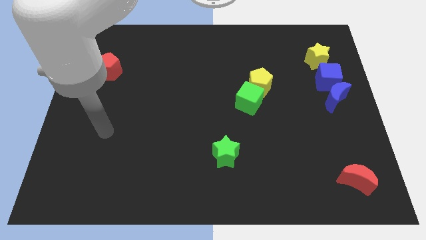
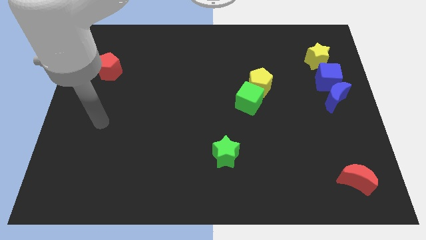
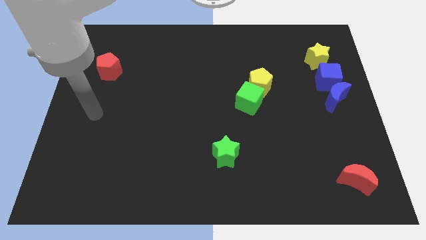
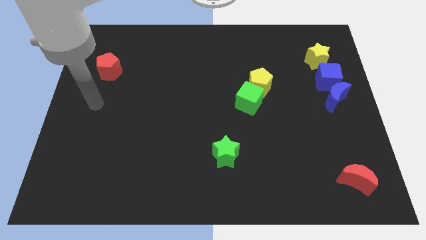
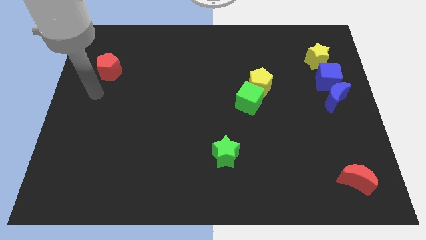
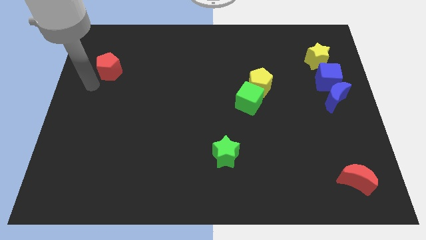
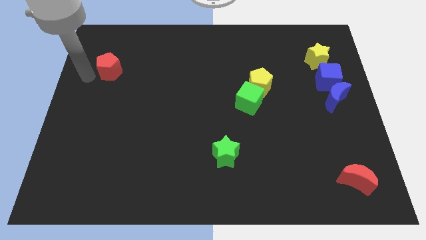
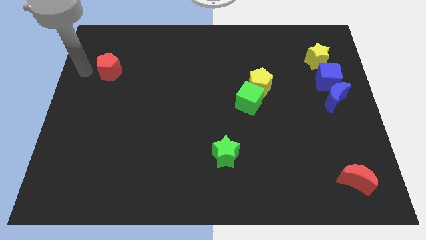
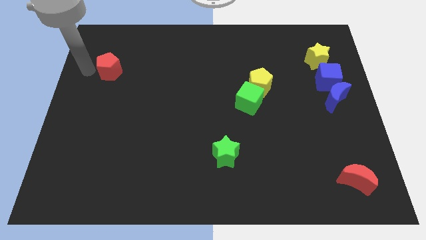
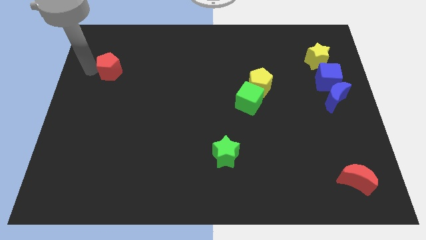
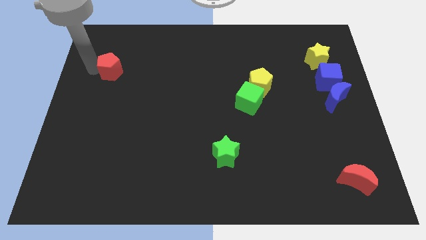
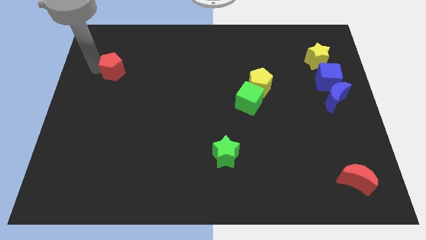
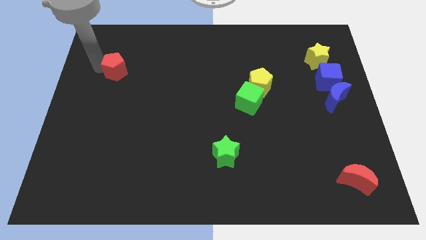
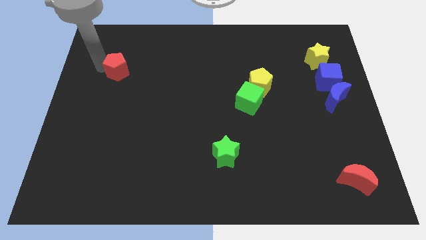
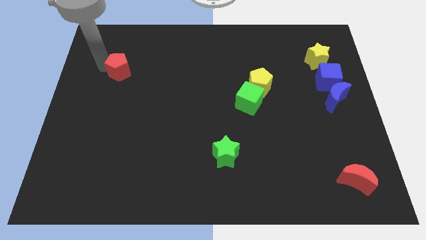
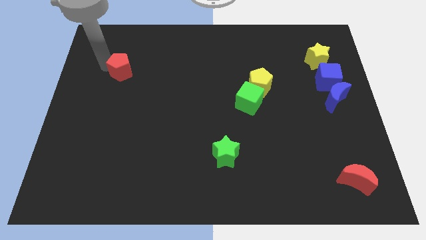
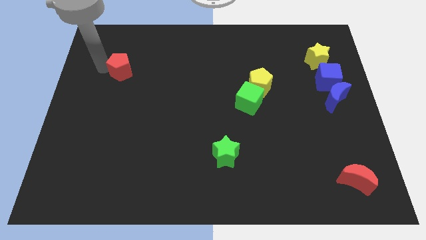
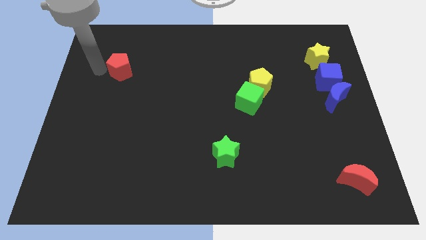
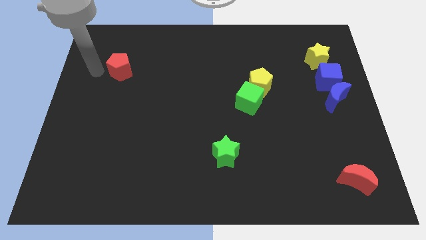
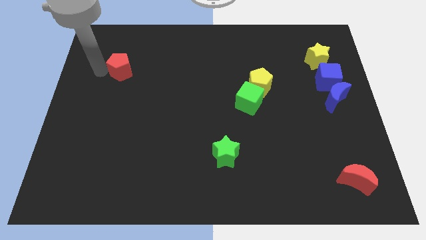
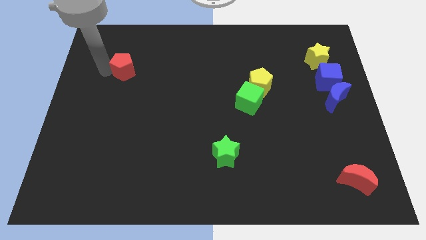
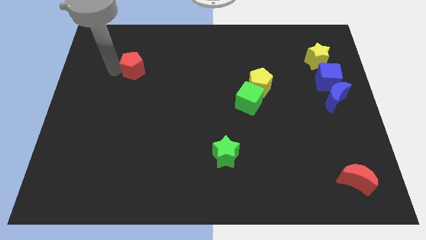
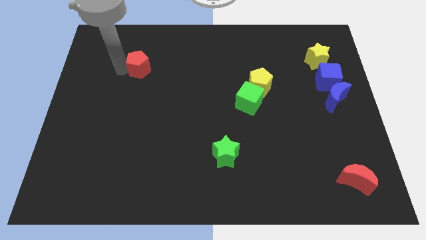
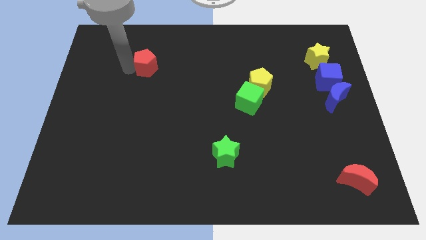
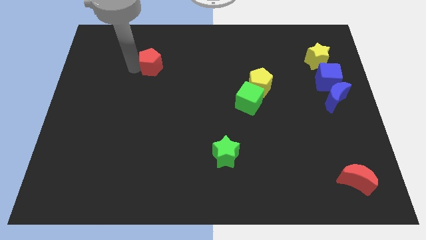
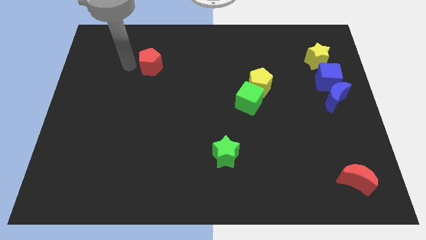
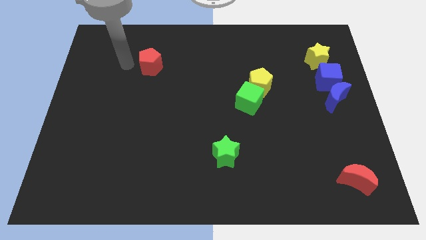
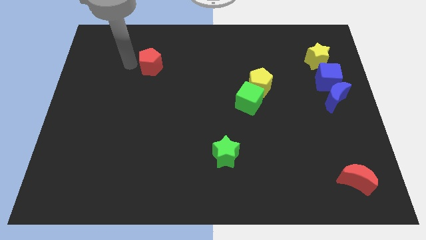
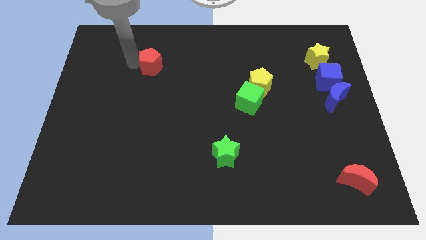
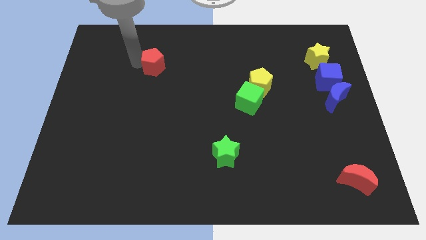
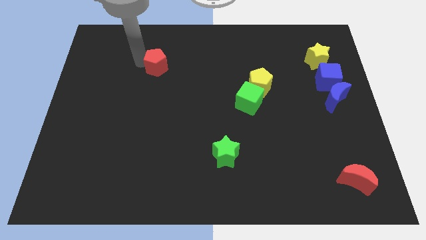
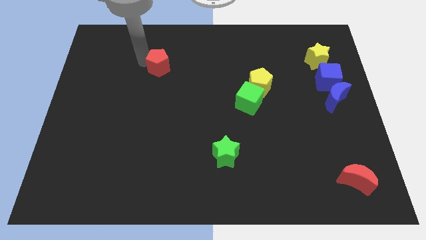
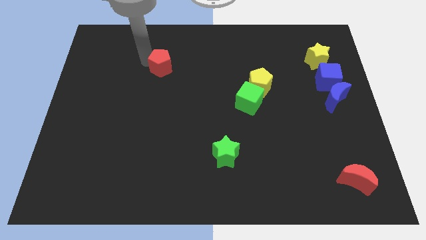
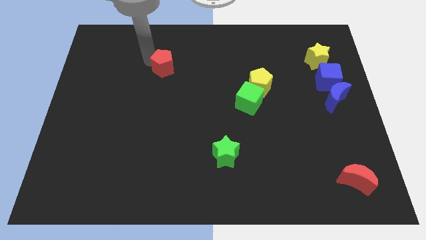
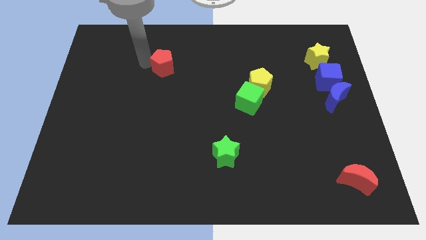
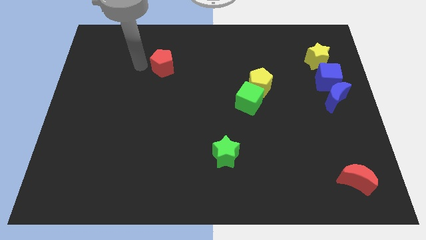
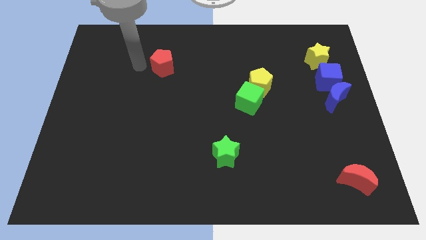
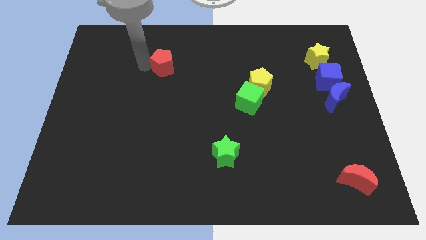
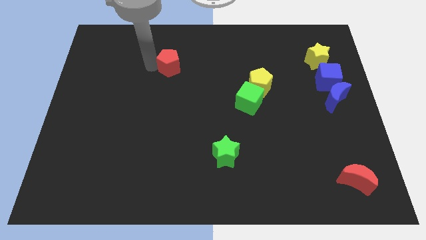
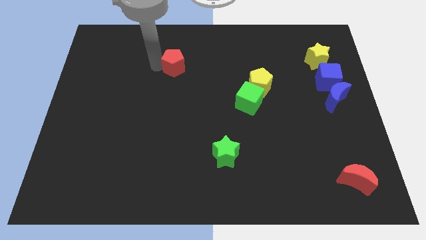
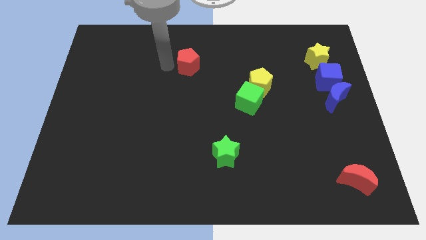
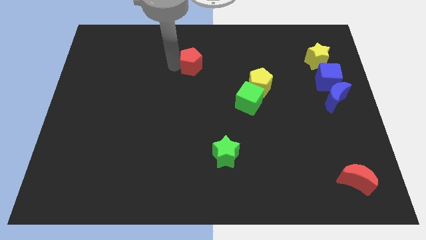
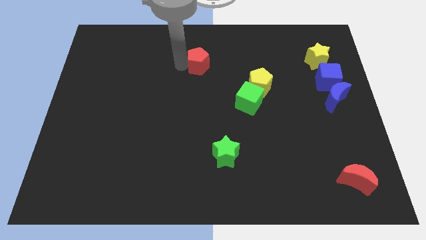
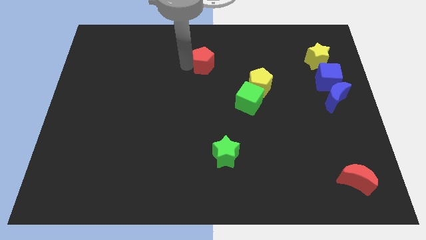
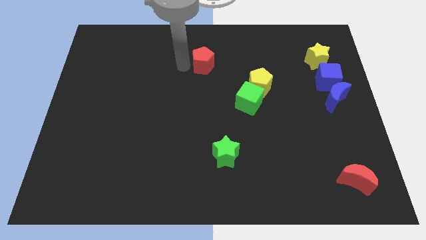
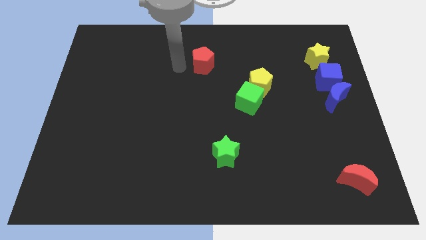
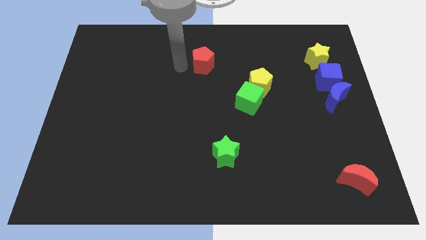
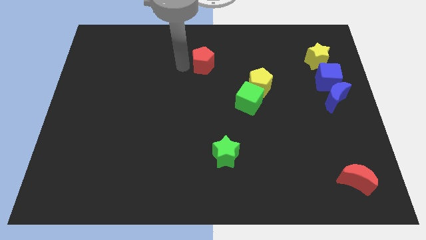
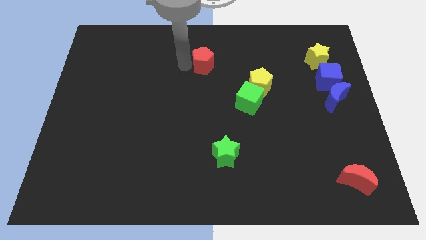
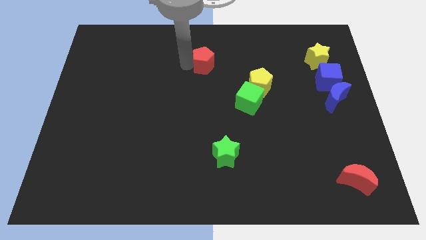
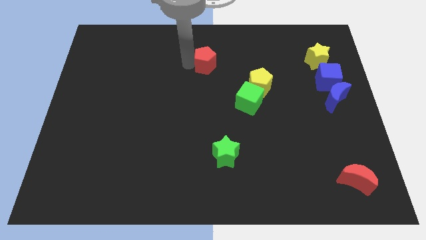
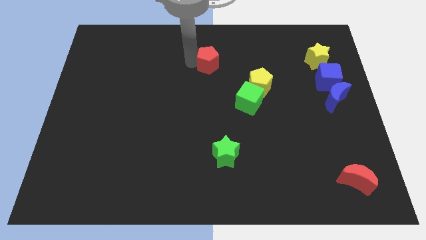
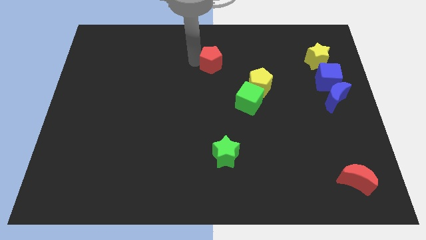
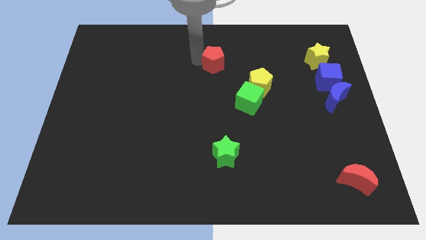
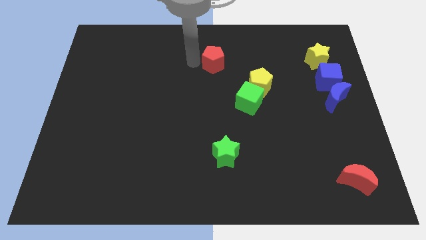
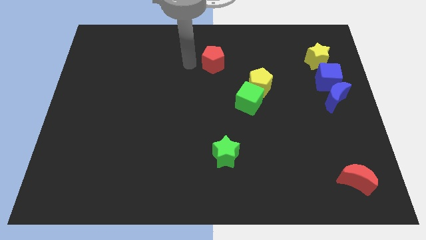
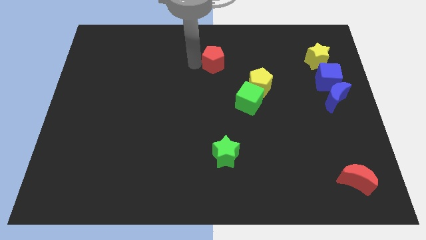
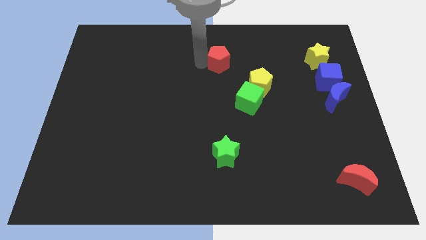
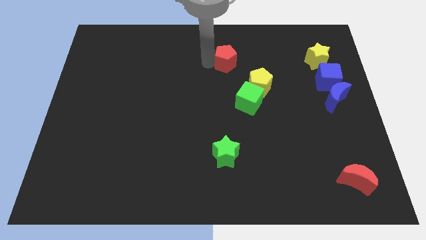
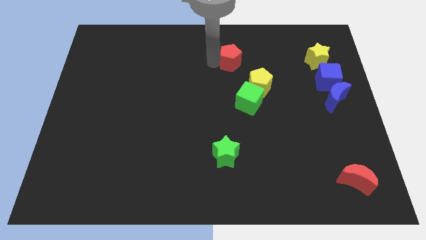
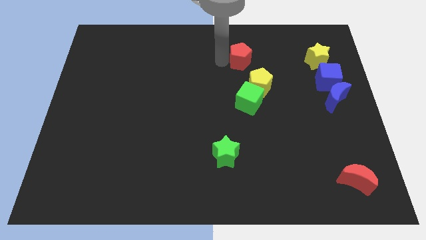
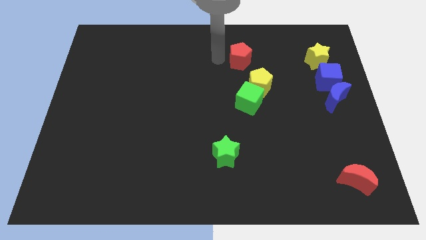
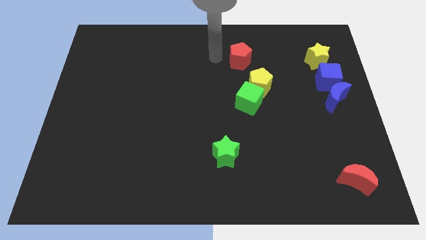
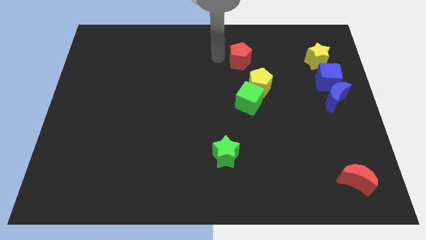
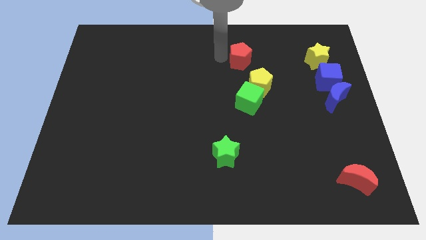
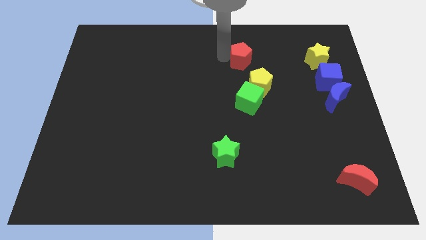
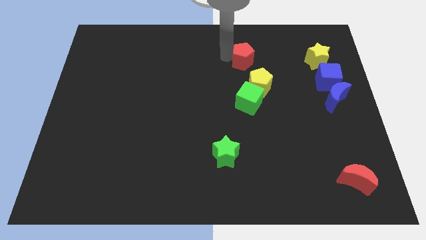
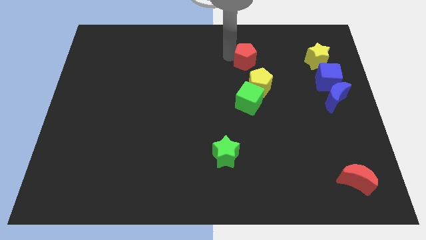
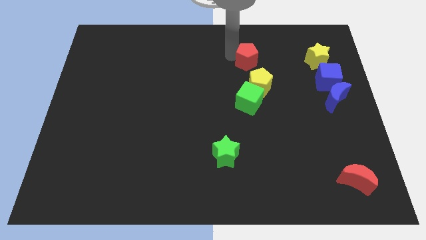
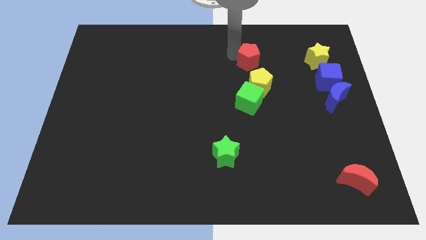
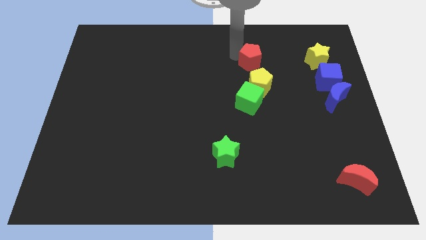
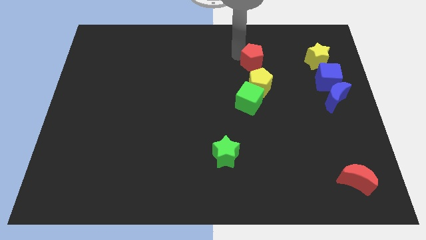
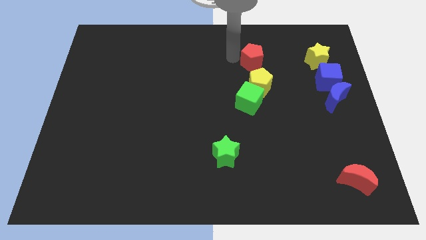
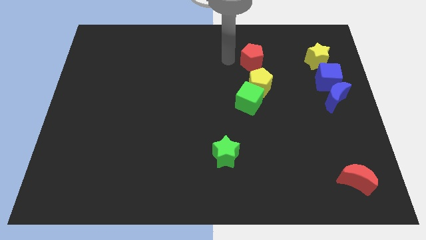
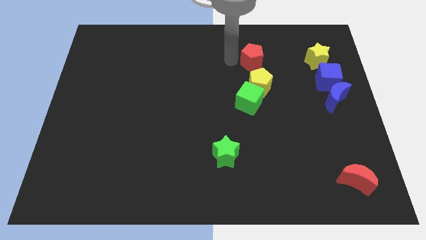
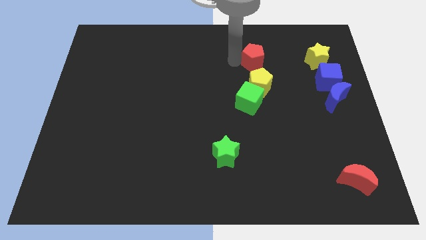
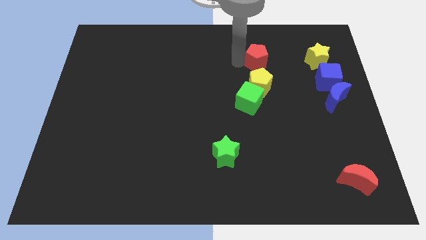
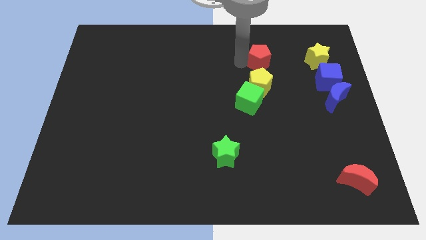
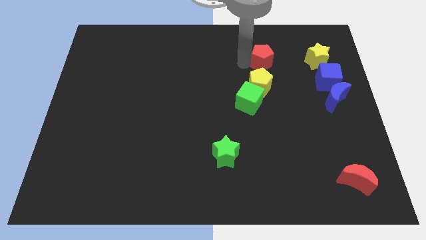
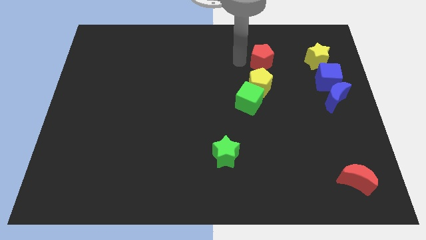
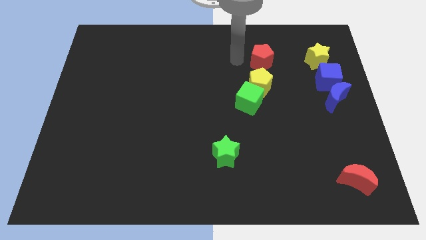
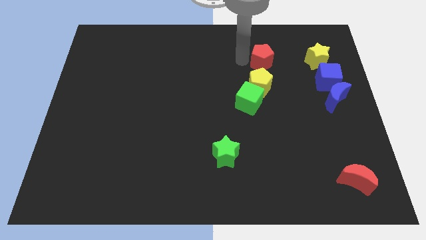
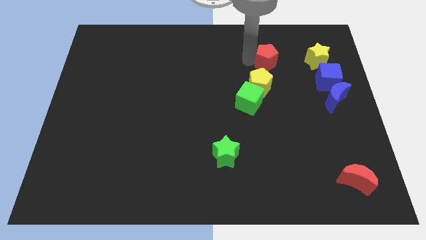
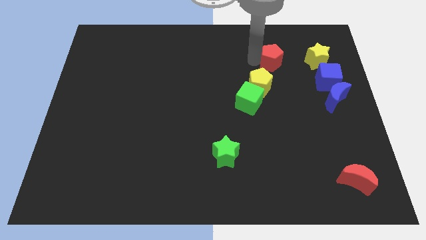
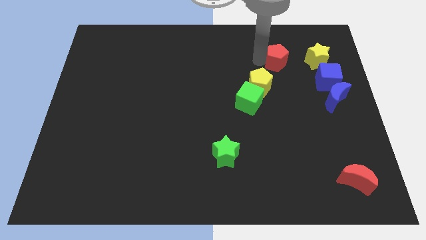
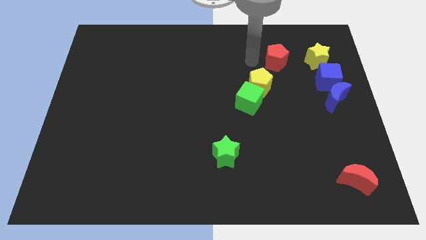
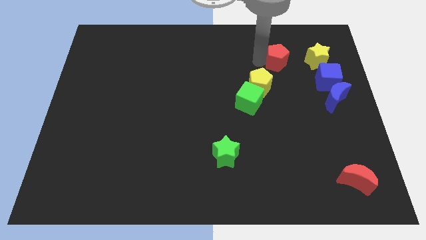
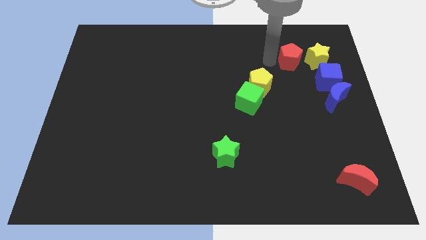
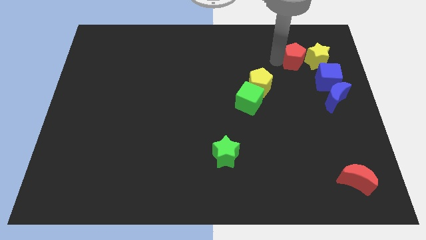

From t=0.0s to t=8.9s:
push the red pentagon towards the yellow star
